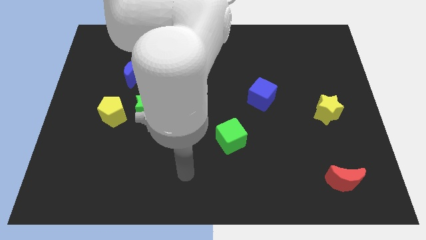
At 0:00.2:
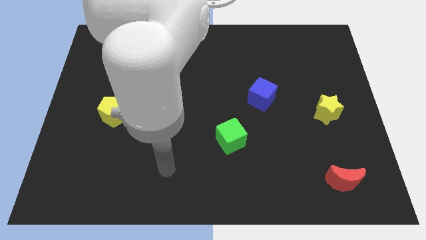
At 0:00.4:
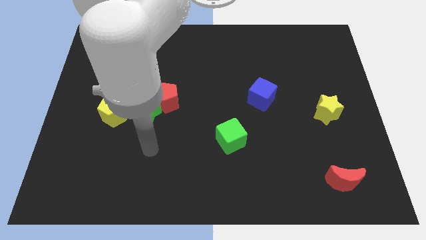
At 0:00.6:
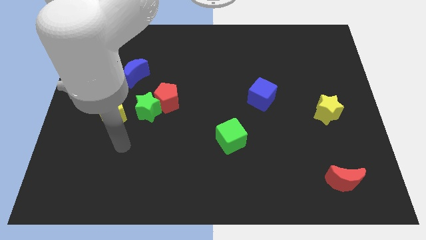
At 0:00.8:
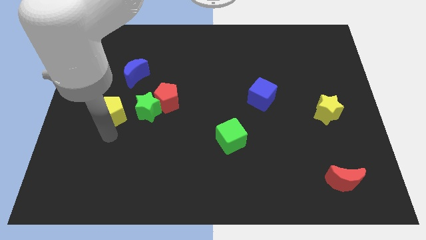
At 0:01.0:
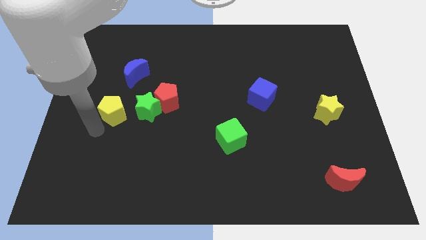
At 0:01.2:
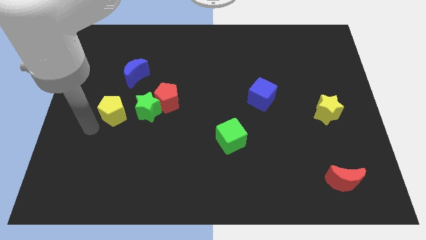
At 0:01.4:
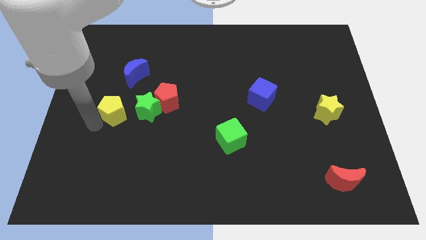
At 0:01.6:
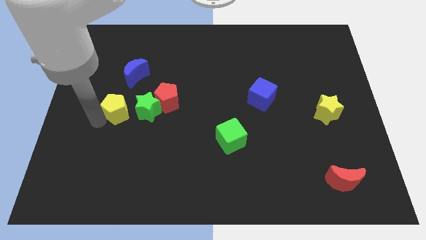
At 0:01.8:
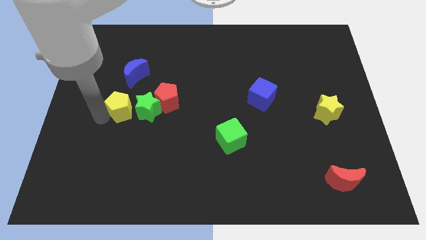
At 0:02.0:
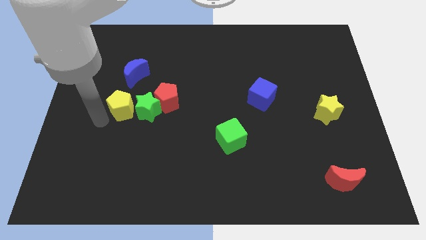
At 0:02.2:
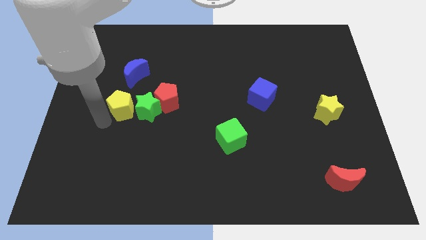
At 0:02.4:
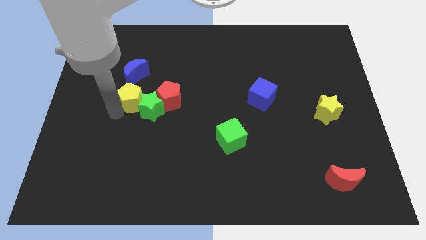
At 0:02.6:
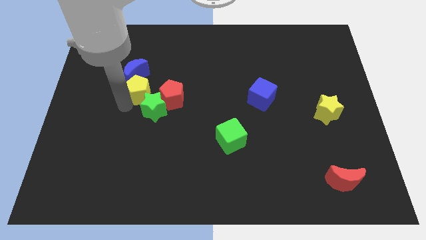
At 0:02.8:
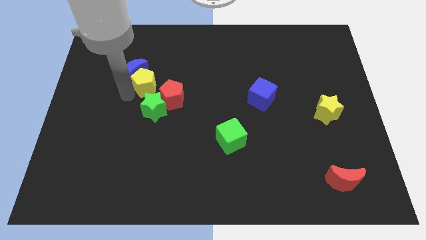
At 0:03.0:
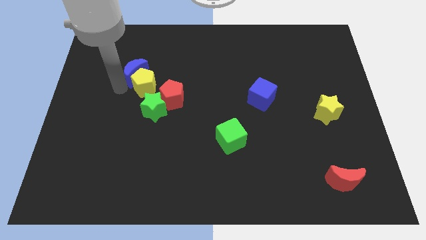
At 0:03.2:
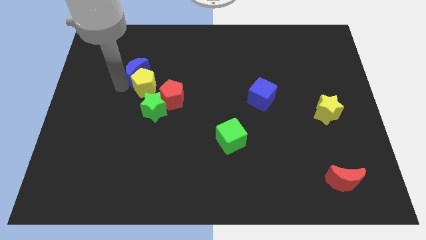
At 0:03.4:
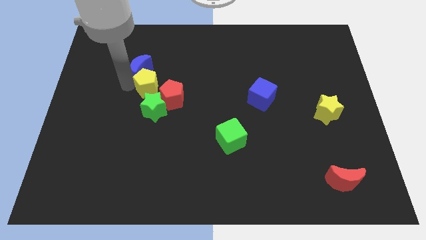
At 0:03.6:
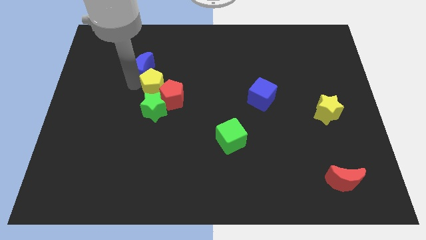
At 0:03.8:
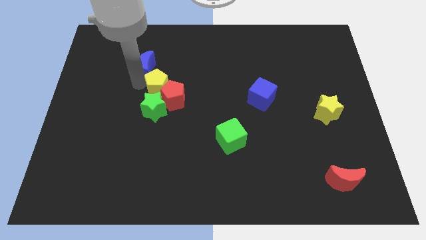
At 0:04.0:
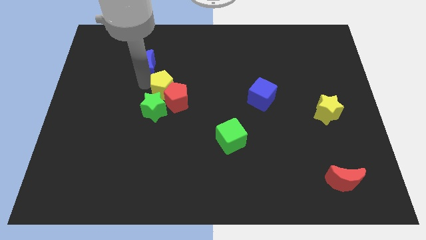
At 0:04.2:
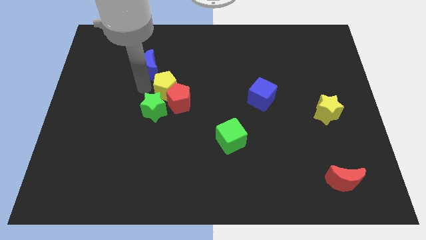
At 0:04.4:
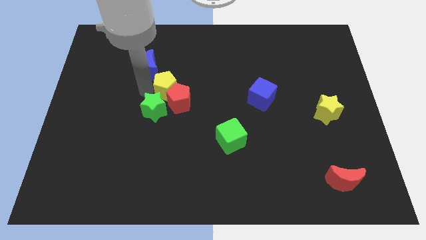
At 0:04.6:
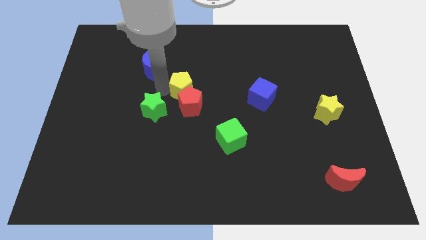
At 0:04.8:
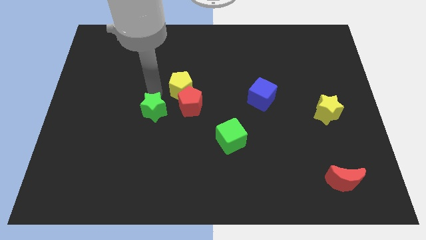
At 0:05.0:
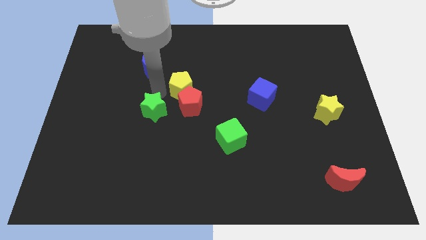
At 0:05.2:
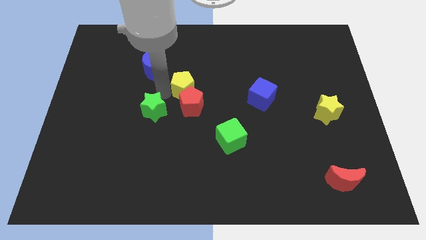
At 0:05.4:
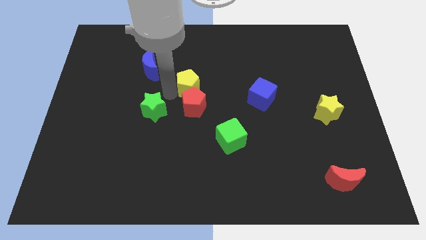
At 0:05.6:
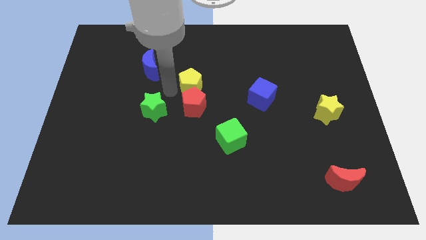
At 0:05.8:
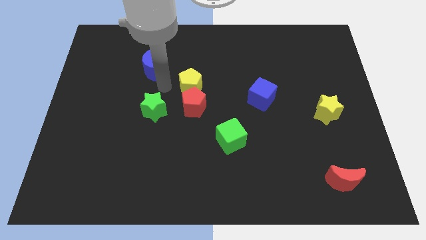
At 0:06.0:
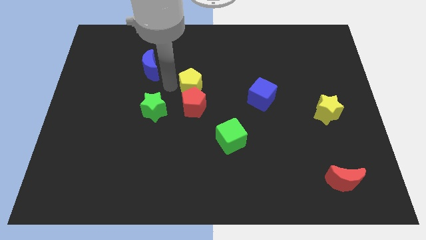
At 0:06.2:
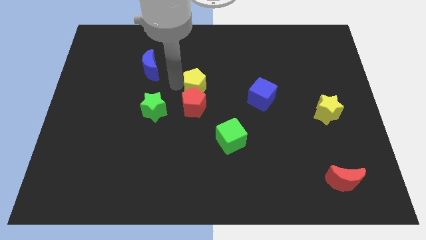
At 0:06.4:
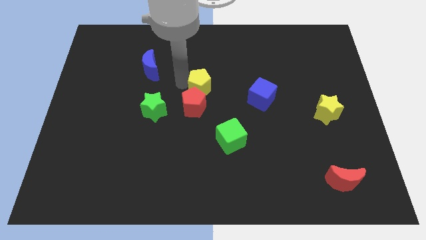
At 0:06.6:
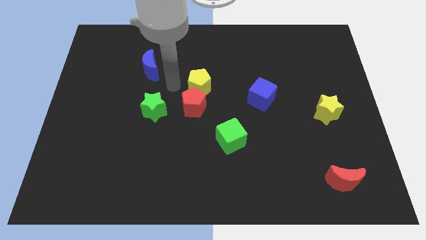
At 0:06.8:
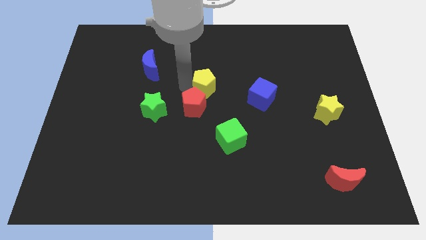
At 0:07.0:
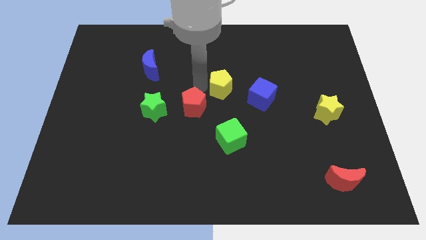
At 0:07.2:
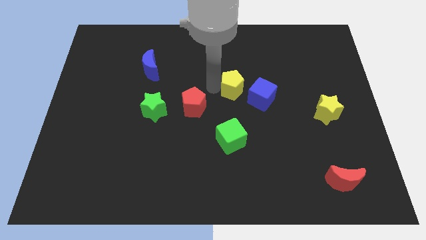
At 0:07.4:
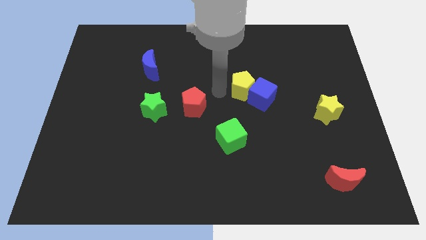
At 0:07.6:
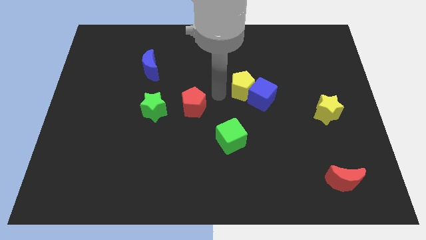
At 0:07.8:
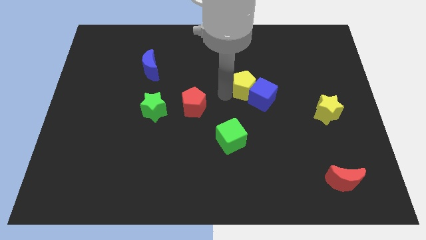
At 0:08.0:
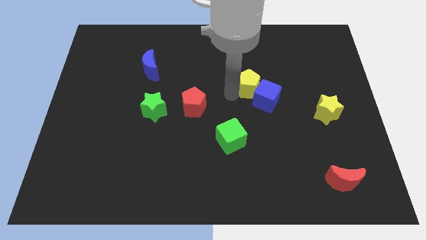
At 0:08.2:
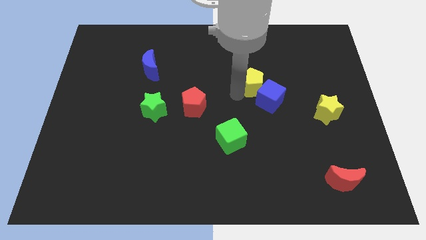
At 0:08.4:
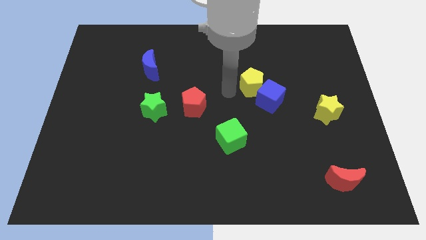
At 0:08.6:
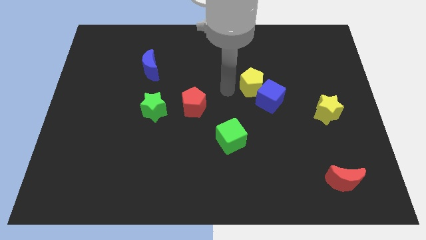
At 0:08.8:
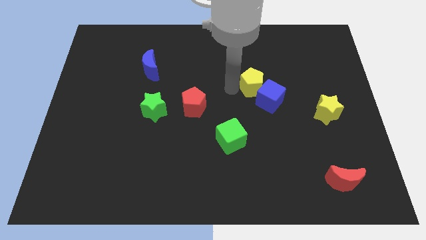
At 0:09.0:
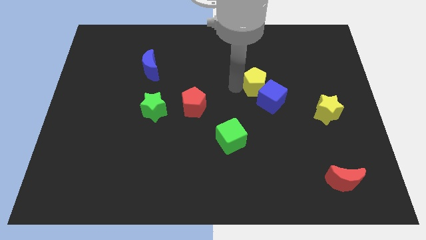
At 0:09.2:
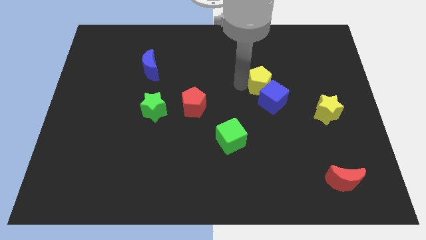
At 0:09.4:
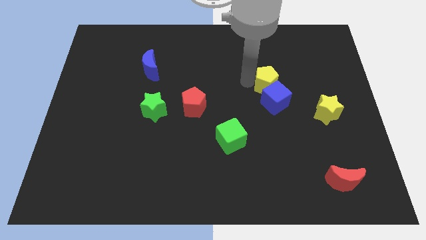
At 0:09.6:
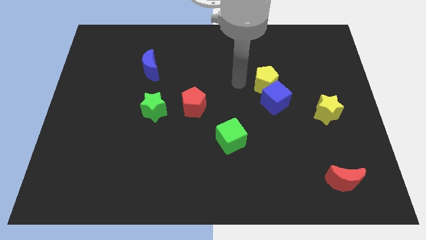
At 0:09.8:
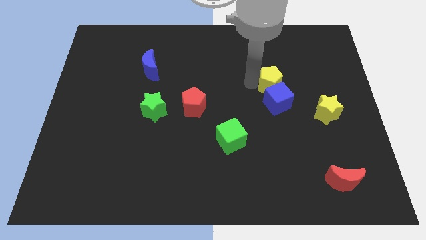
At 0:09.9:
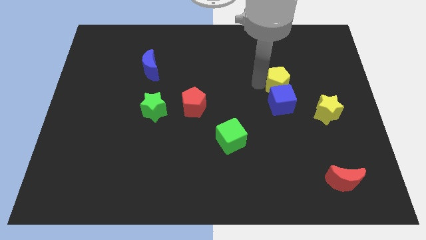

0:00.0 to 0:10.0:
slide the yellow pentagon diagonally up and to the right of the blue cube

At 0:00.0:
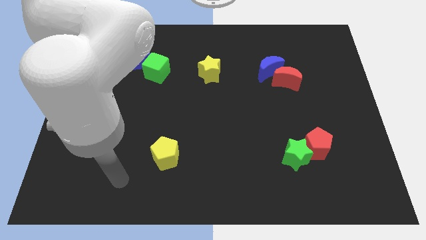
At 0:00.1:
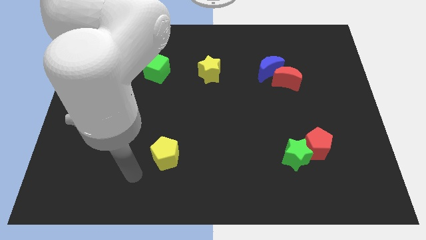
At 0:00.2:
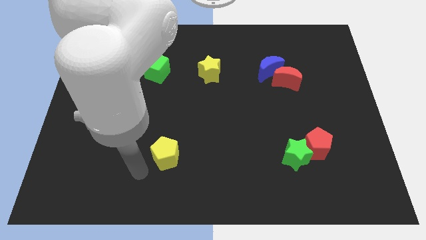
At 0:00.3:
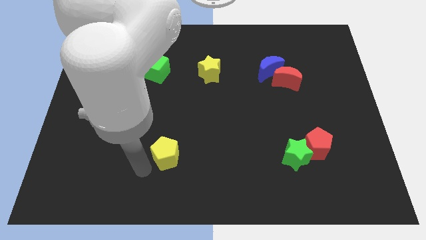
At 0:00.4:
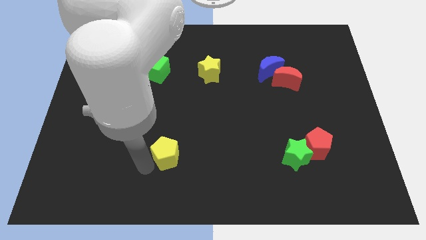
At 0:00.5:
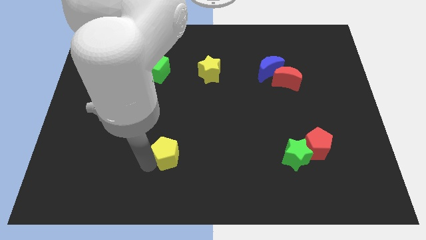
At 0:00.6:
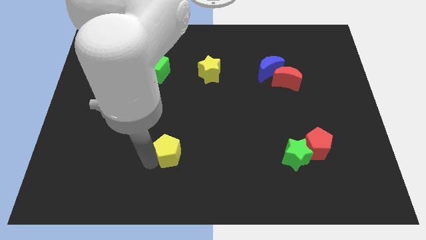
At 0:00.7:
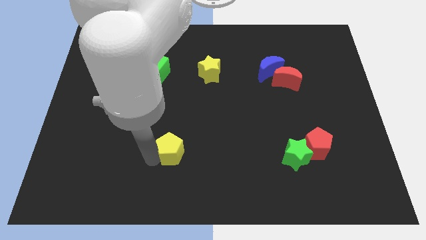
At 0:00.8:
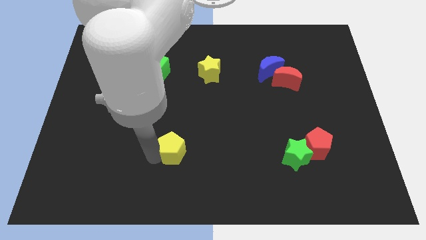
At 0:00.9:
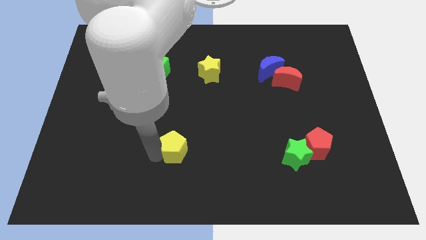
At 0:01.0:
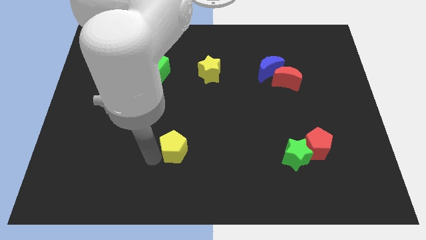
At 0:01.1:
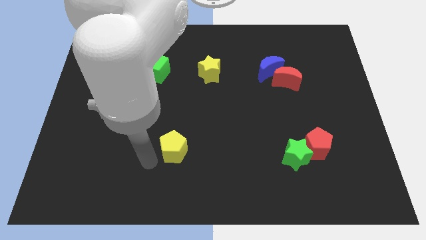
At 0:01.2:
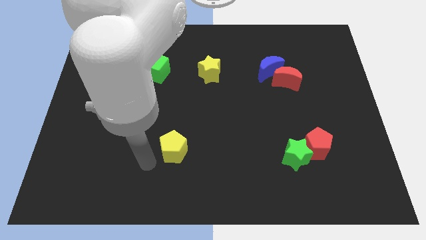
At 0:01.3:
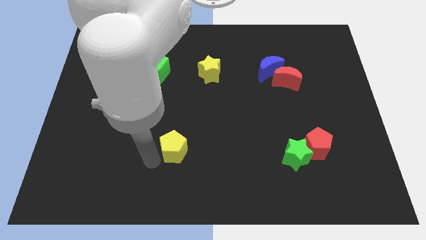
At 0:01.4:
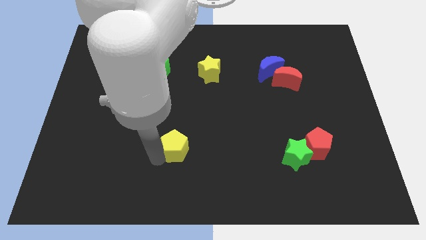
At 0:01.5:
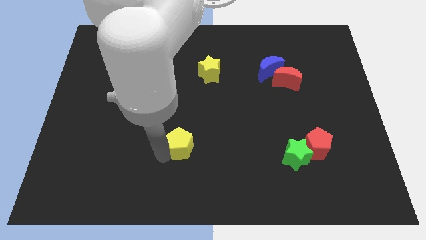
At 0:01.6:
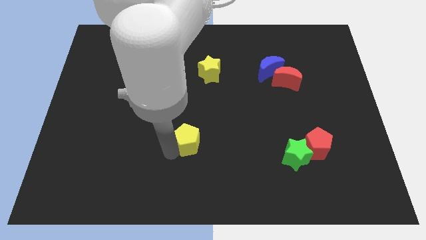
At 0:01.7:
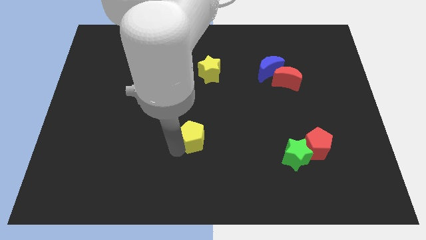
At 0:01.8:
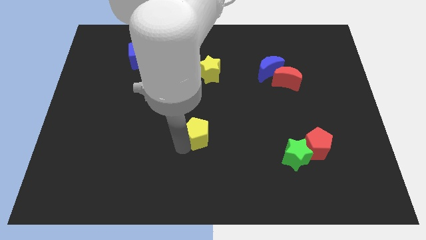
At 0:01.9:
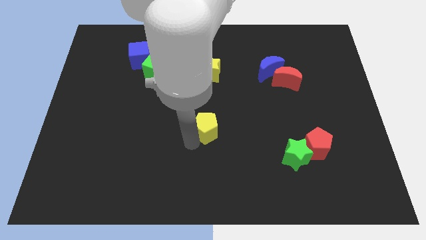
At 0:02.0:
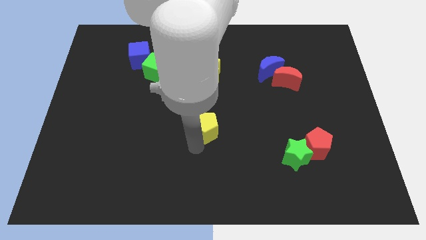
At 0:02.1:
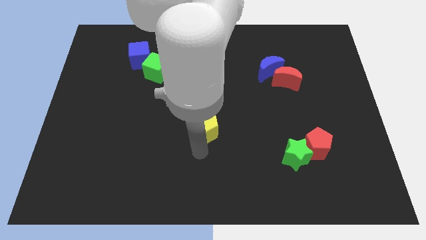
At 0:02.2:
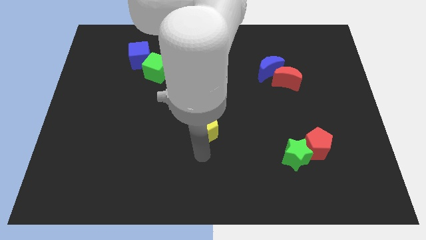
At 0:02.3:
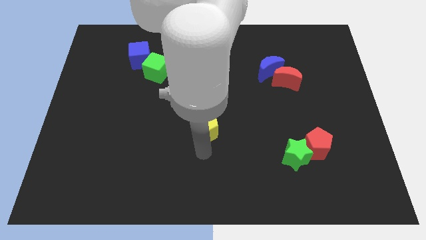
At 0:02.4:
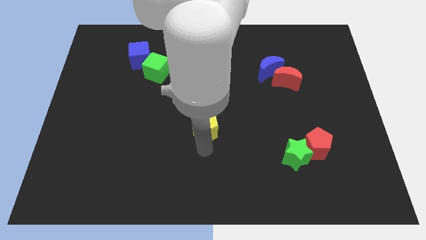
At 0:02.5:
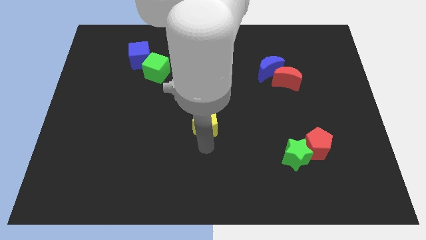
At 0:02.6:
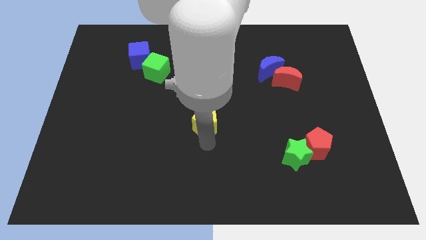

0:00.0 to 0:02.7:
slide the yellow pentagon to the bottom side of the yellow star
